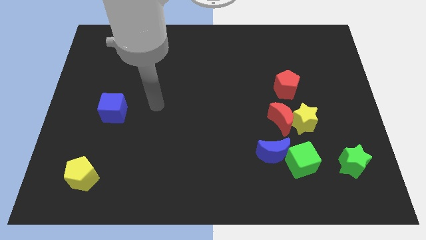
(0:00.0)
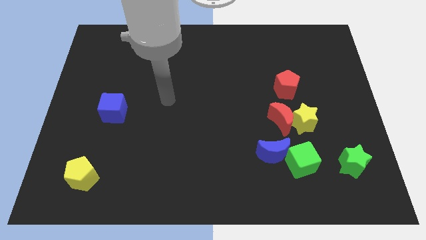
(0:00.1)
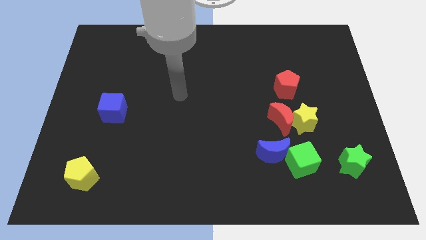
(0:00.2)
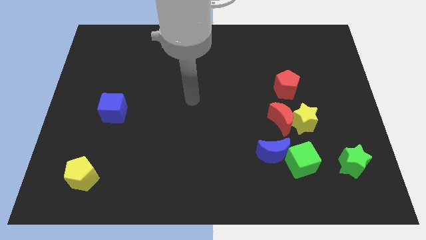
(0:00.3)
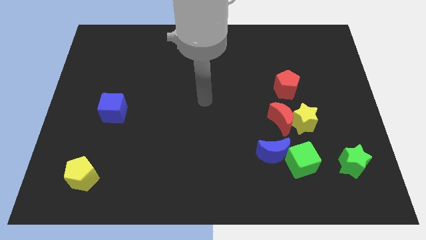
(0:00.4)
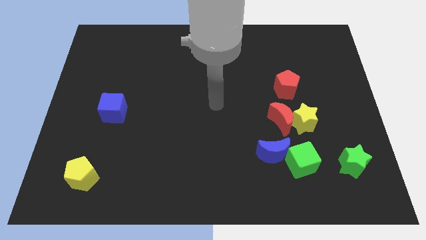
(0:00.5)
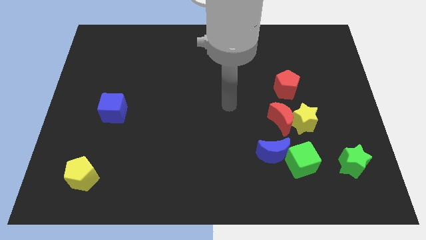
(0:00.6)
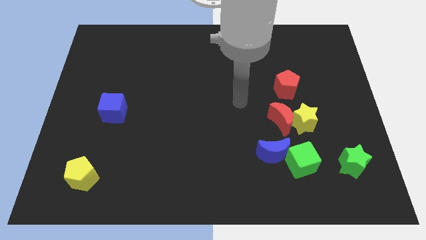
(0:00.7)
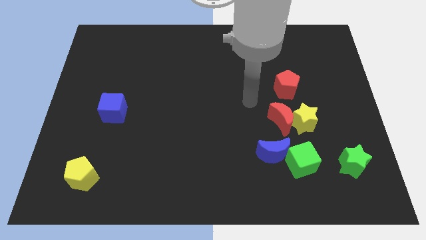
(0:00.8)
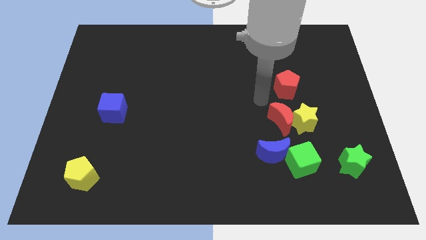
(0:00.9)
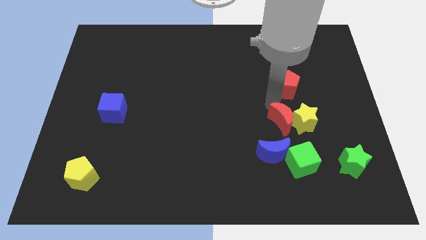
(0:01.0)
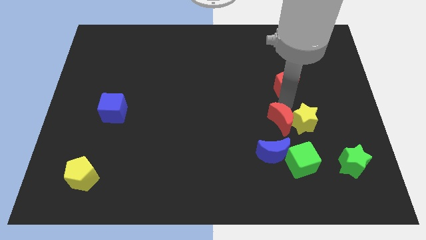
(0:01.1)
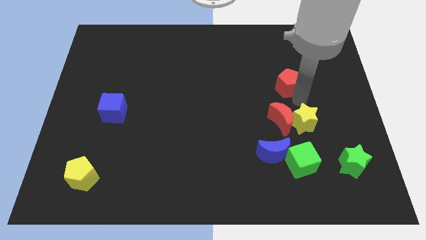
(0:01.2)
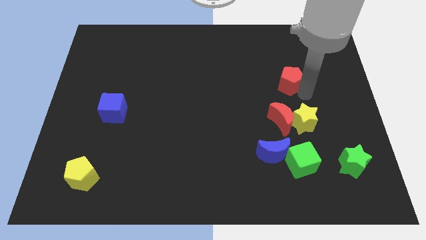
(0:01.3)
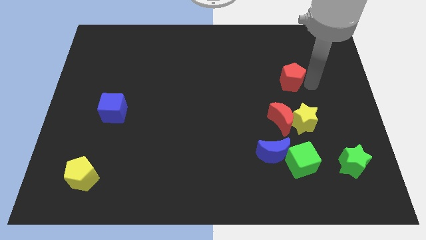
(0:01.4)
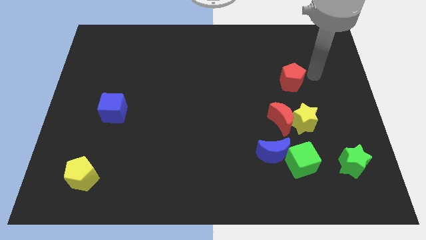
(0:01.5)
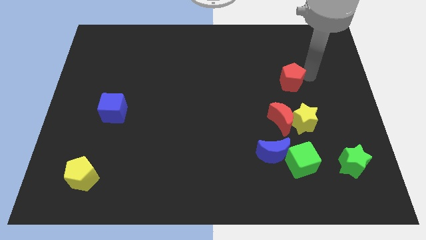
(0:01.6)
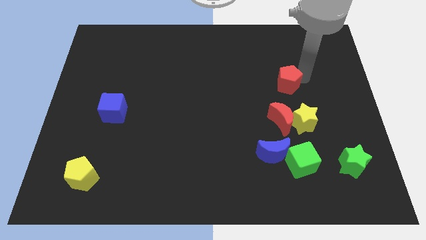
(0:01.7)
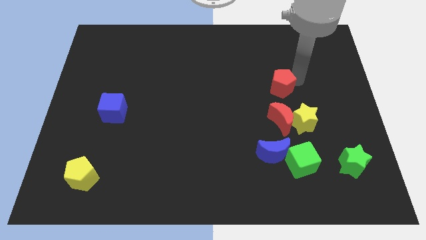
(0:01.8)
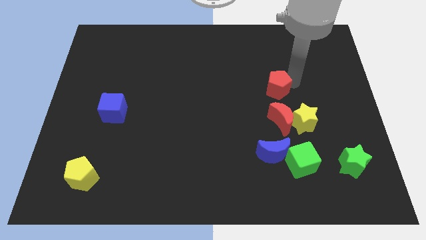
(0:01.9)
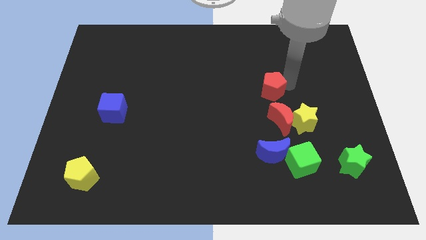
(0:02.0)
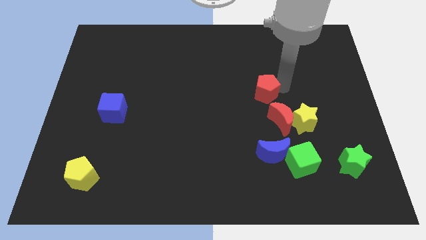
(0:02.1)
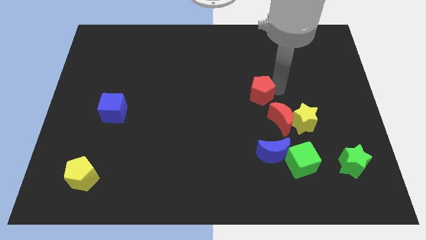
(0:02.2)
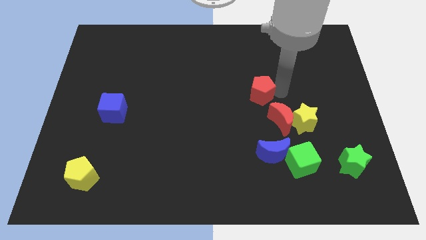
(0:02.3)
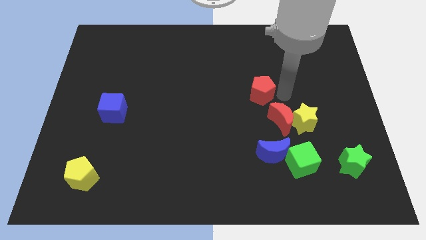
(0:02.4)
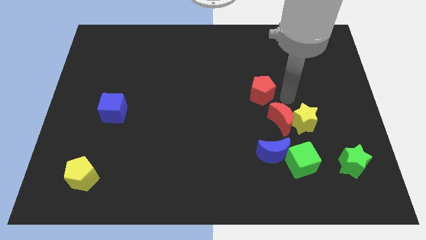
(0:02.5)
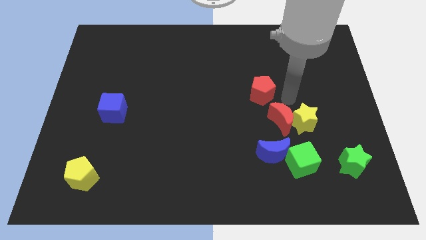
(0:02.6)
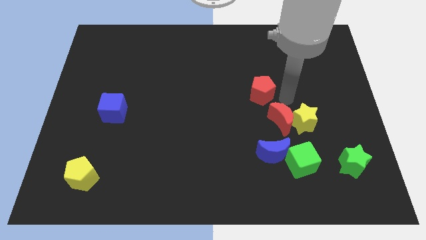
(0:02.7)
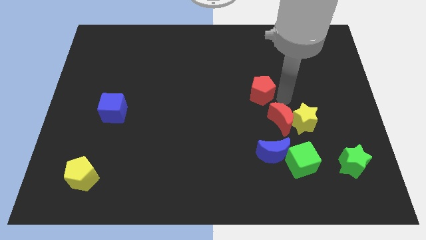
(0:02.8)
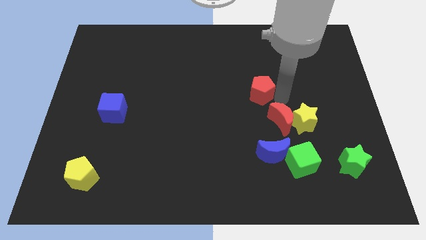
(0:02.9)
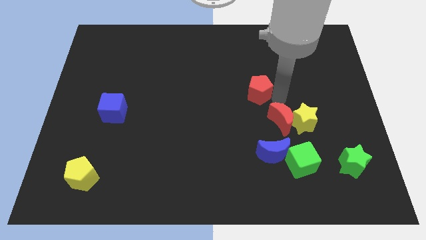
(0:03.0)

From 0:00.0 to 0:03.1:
push the red pentagon a little bit to the left

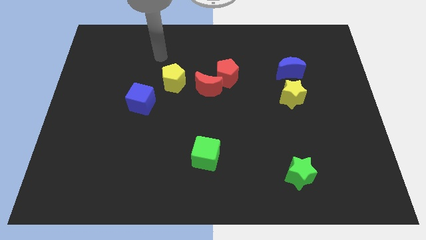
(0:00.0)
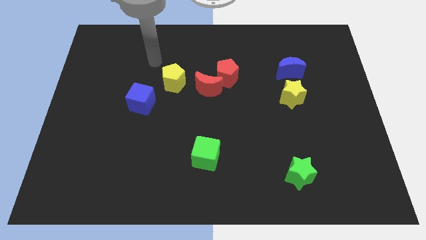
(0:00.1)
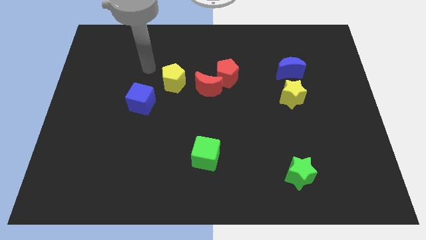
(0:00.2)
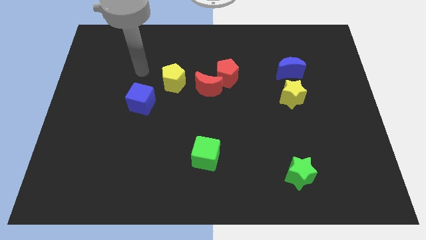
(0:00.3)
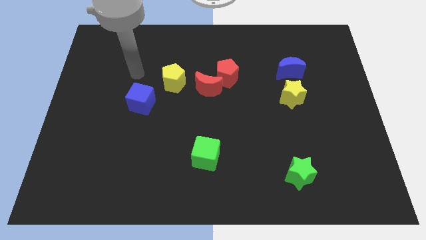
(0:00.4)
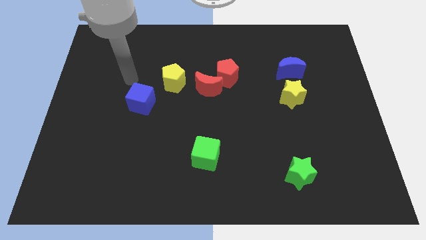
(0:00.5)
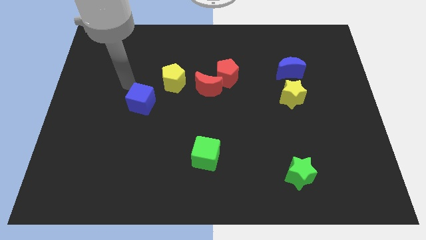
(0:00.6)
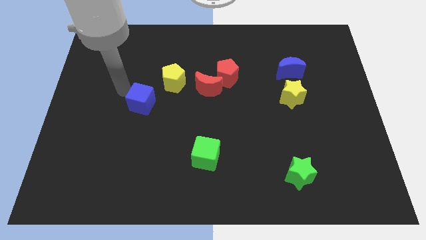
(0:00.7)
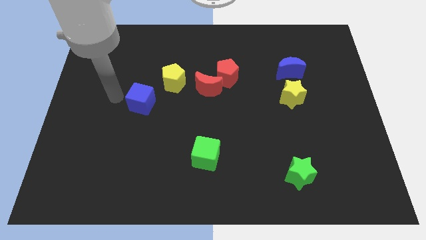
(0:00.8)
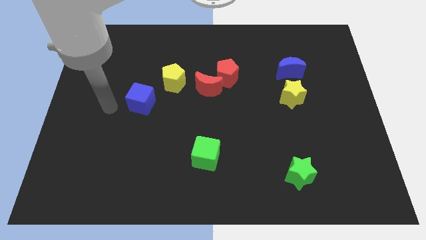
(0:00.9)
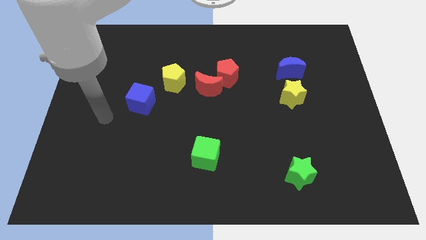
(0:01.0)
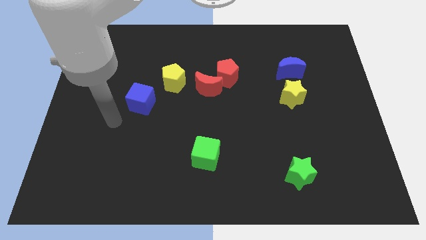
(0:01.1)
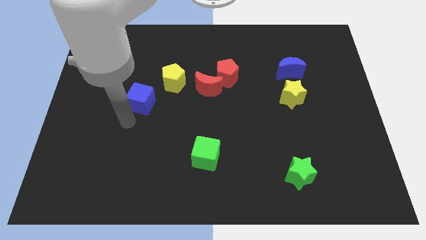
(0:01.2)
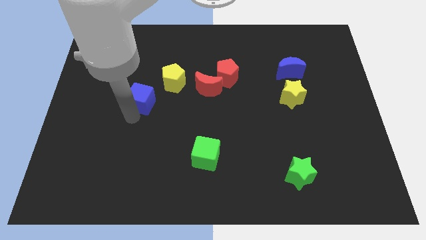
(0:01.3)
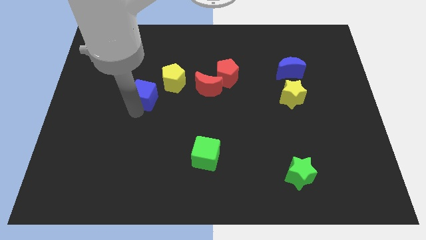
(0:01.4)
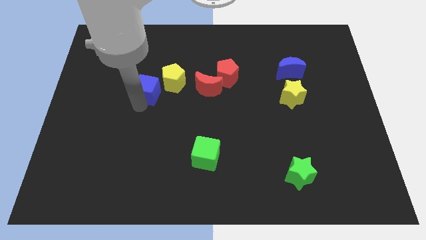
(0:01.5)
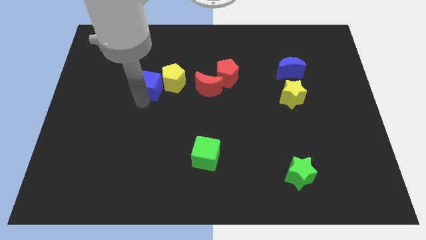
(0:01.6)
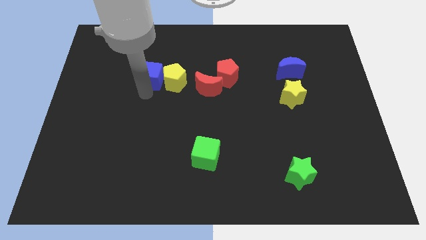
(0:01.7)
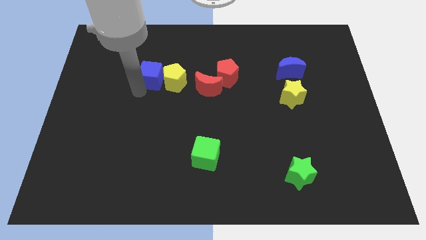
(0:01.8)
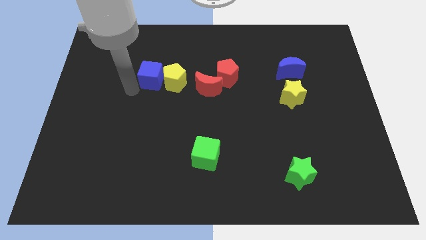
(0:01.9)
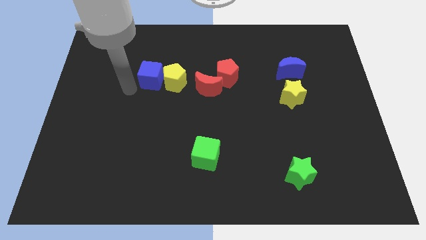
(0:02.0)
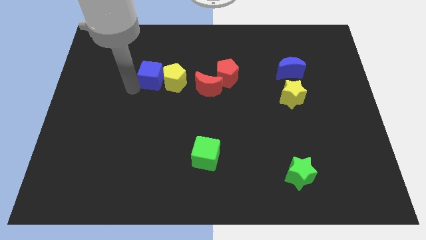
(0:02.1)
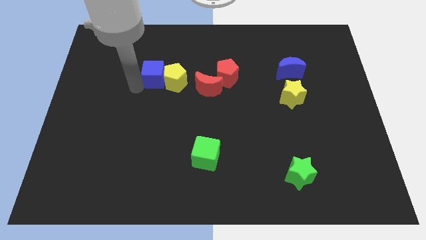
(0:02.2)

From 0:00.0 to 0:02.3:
push the blue cube upwards and right diagonally a bit

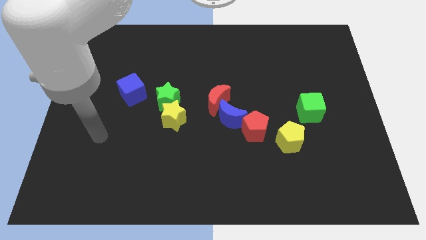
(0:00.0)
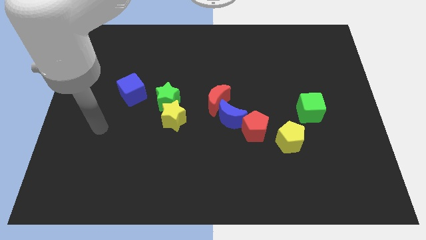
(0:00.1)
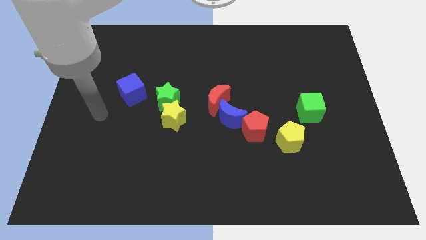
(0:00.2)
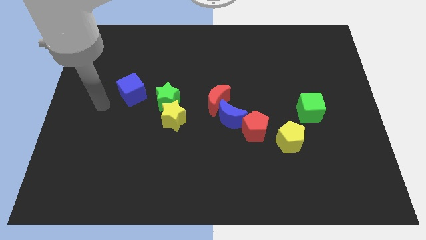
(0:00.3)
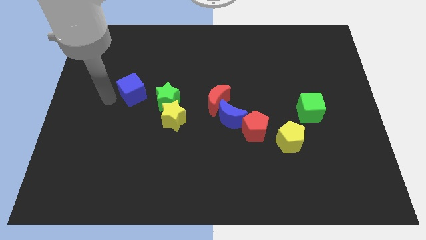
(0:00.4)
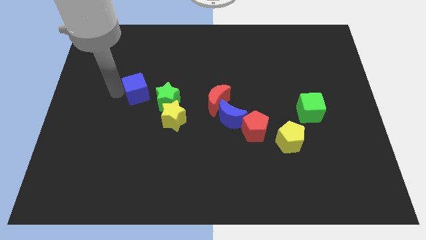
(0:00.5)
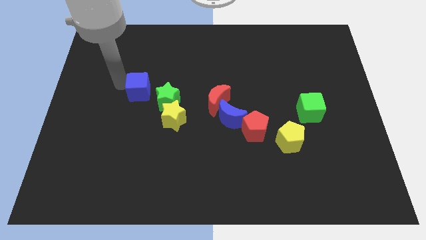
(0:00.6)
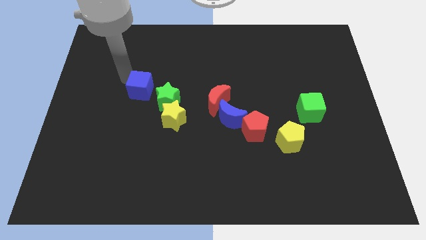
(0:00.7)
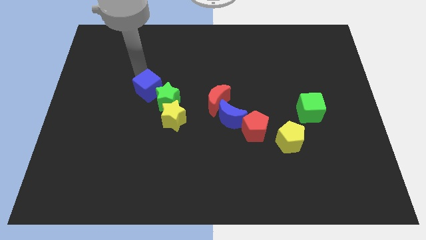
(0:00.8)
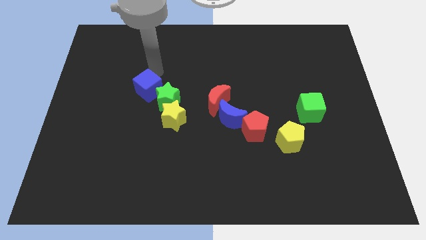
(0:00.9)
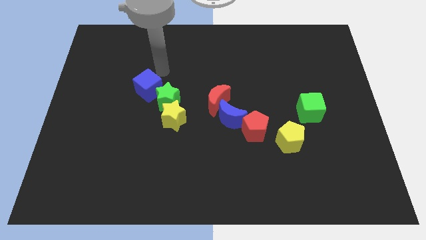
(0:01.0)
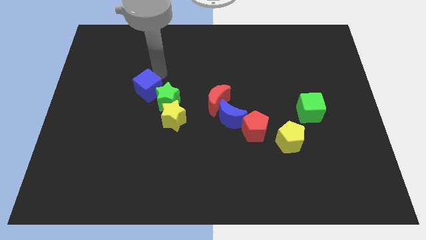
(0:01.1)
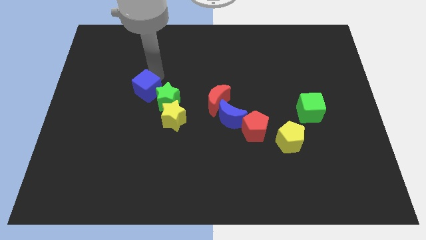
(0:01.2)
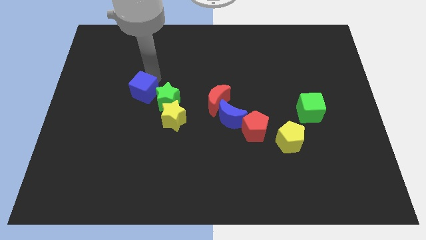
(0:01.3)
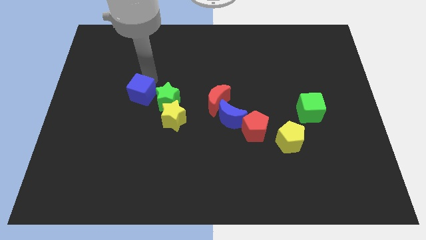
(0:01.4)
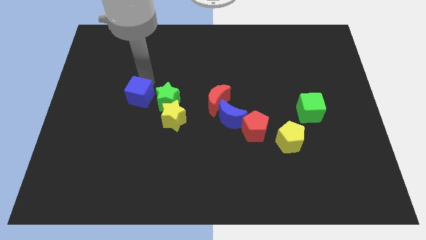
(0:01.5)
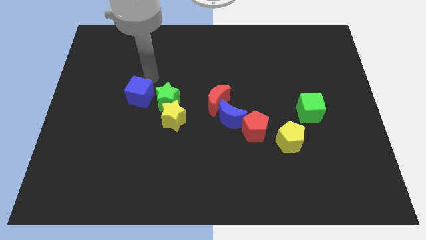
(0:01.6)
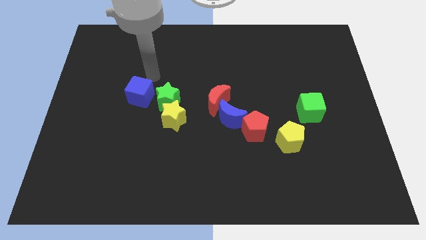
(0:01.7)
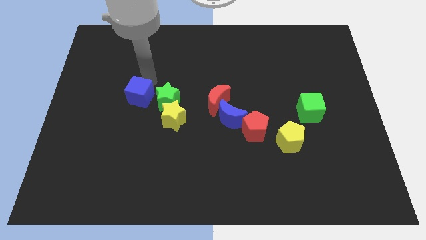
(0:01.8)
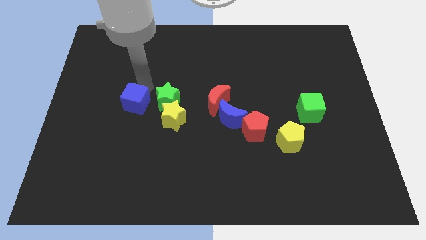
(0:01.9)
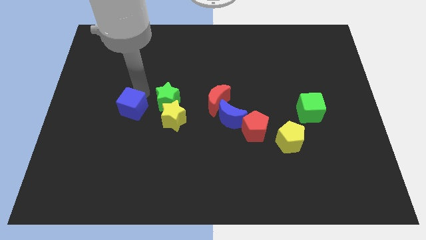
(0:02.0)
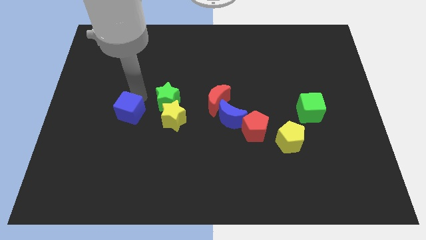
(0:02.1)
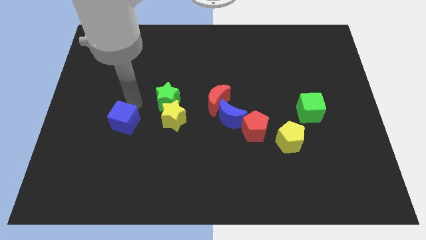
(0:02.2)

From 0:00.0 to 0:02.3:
slide the blue cube slightly down
